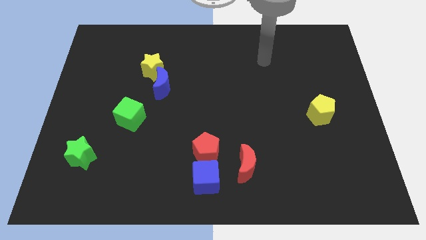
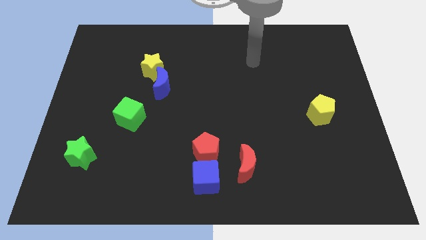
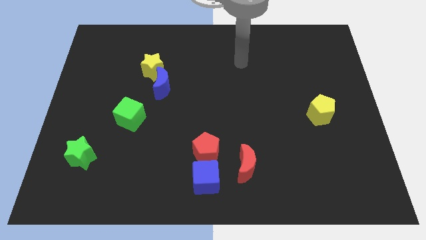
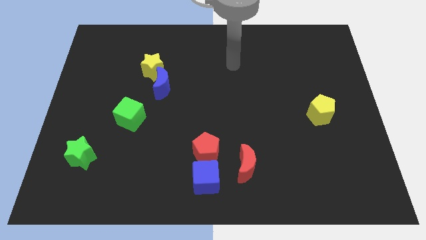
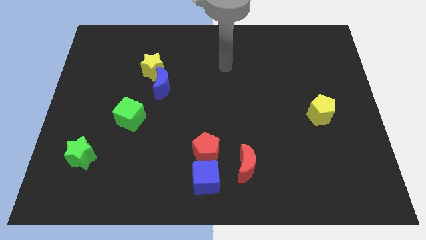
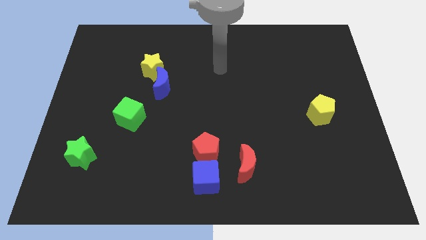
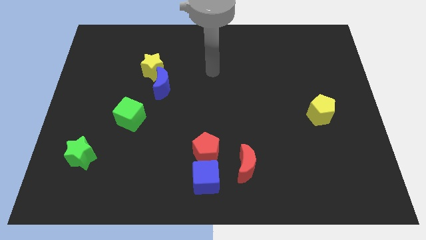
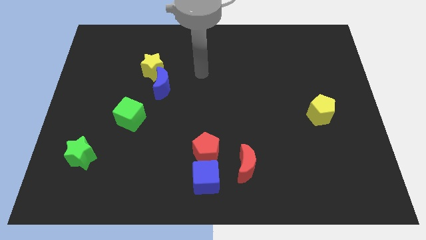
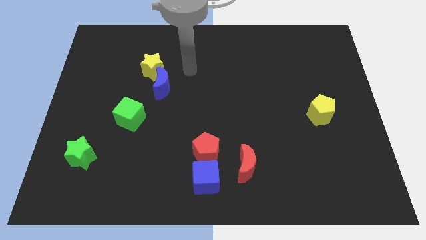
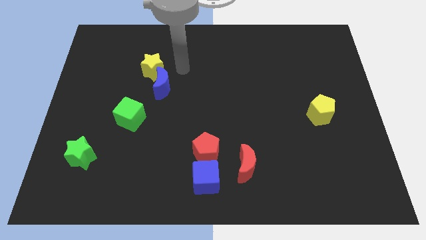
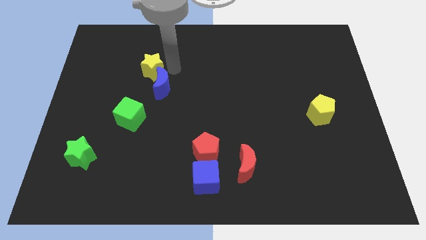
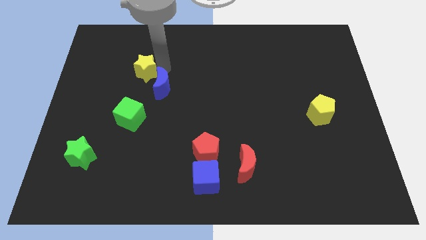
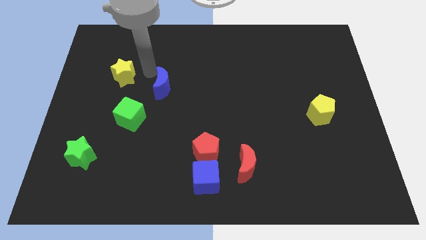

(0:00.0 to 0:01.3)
move the blue moon away from the yellow star

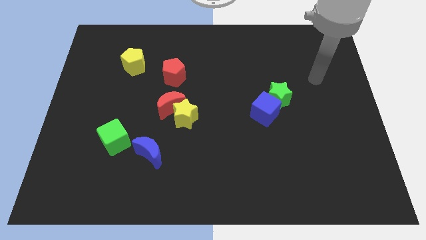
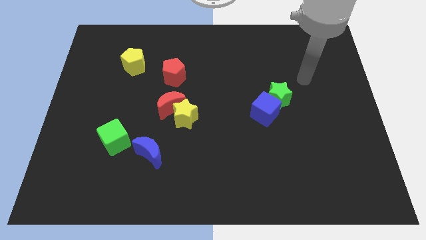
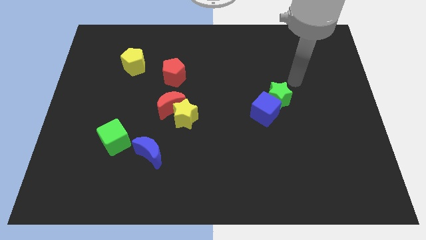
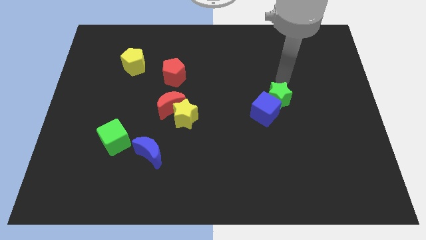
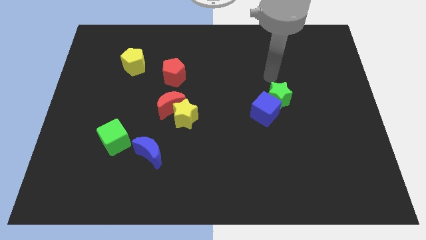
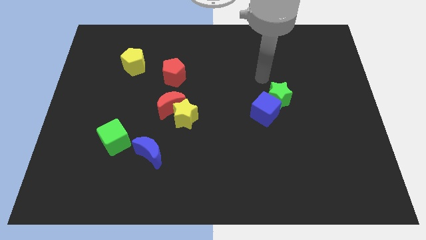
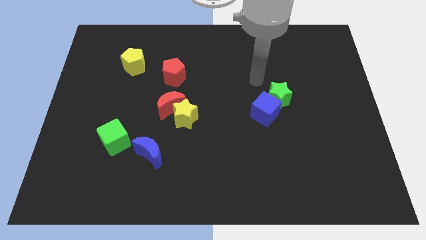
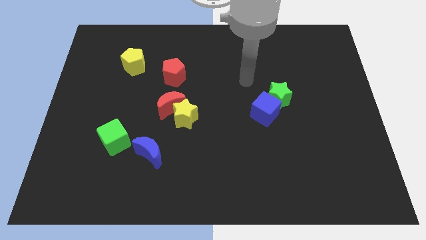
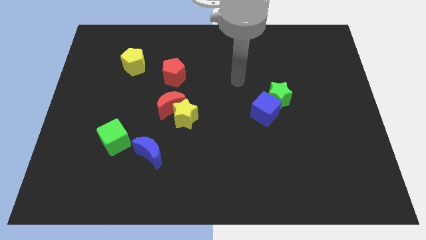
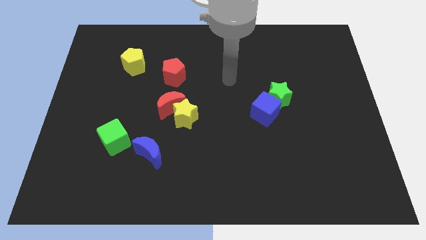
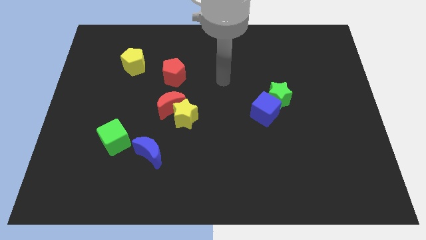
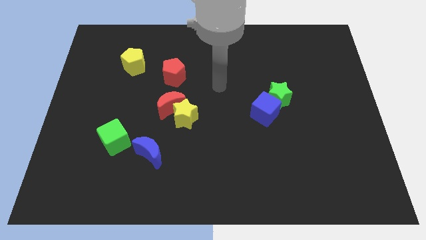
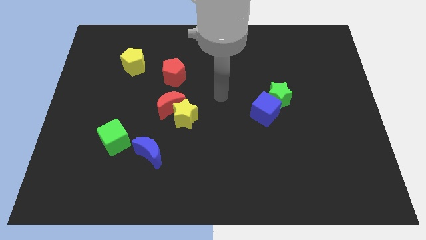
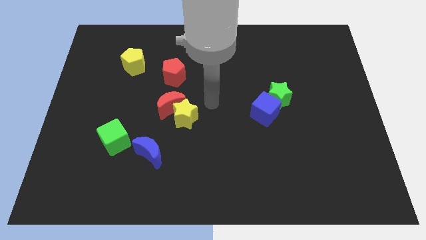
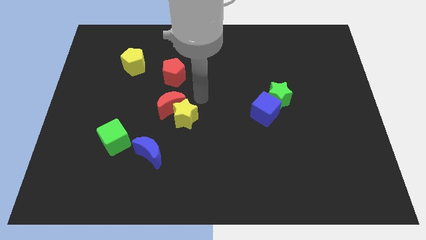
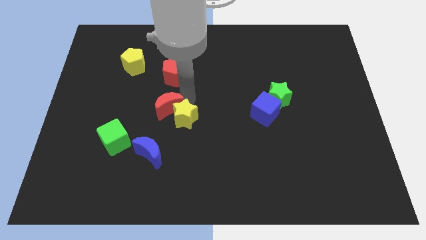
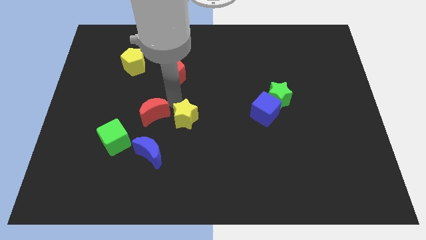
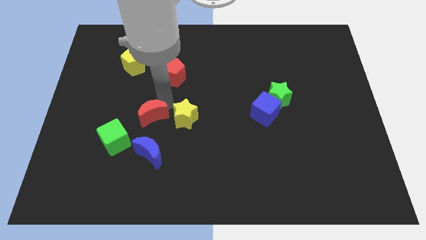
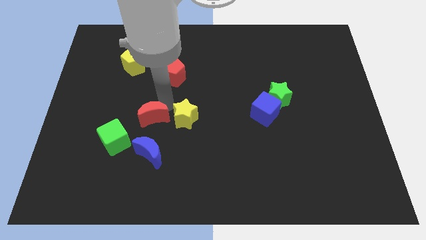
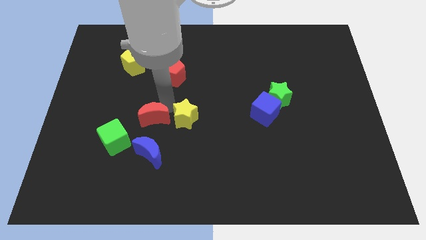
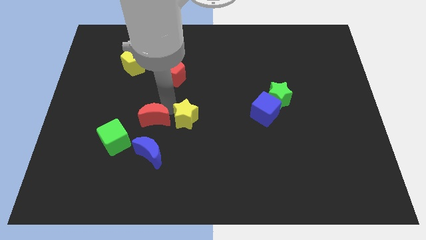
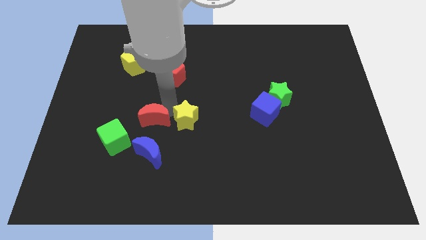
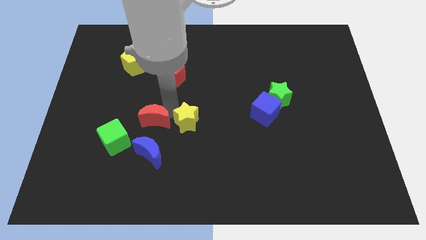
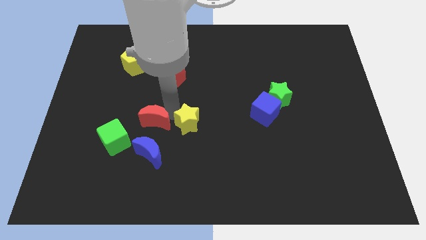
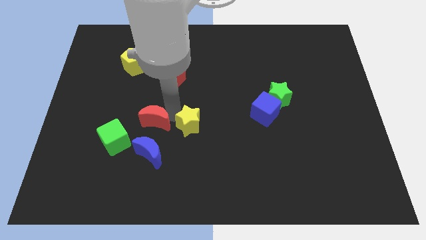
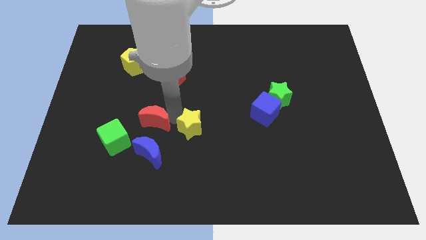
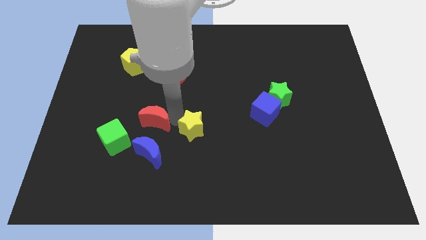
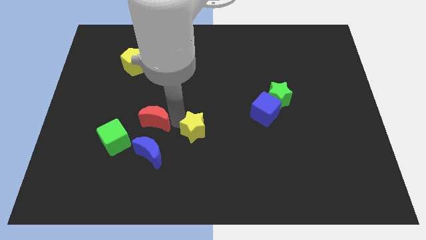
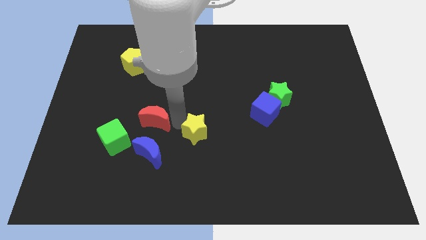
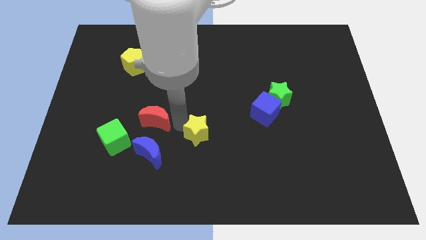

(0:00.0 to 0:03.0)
separate the yellow star from the red moon

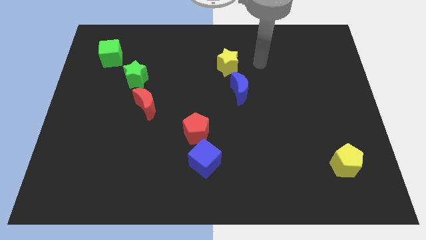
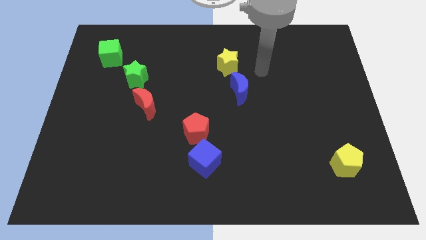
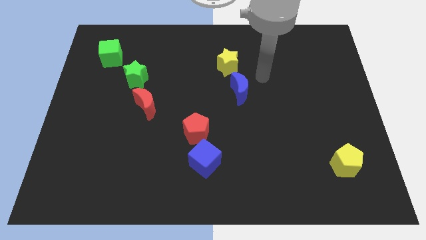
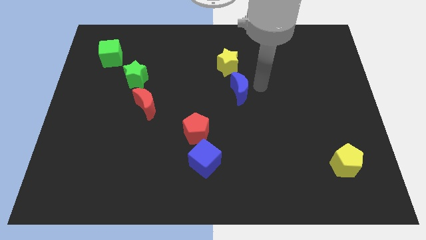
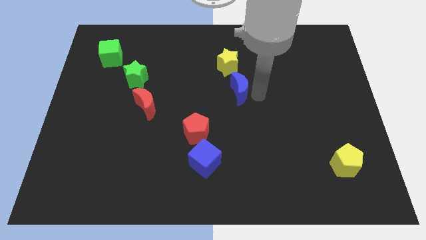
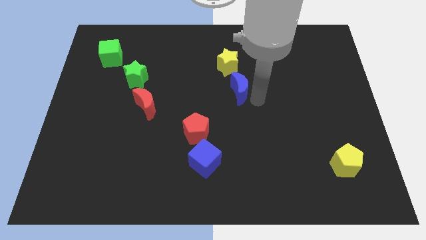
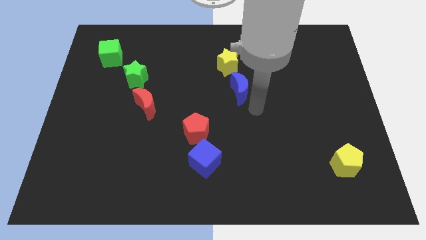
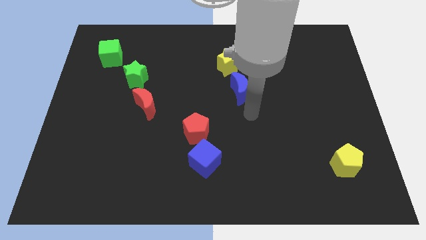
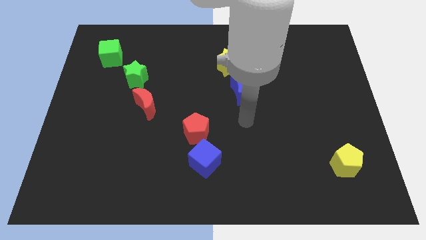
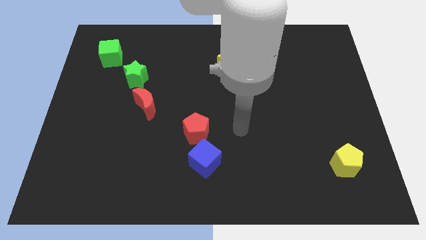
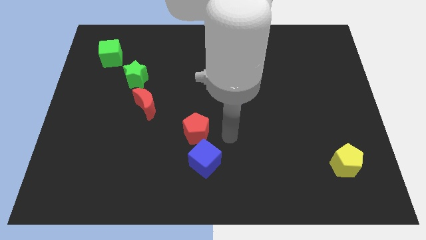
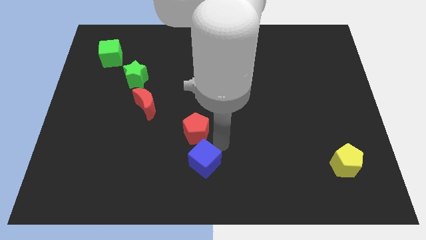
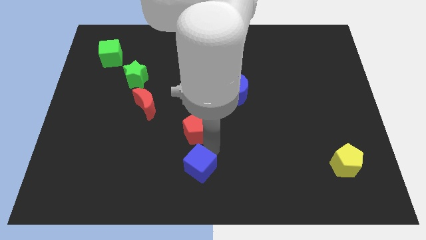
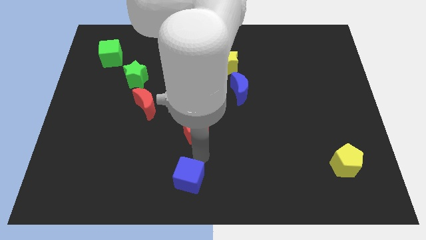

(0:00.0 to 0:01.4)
move the red pentagon away from the blue cube

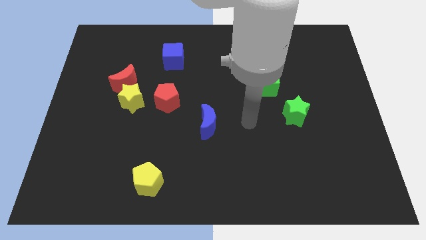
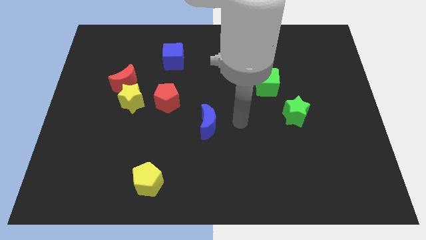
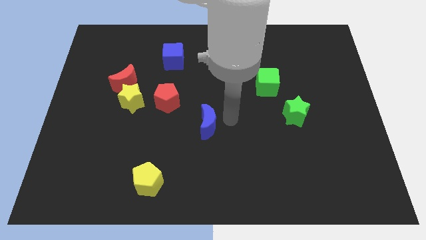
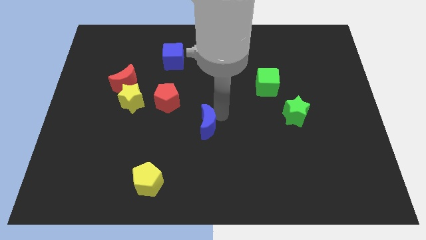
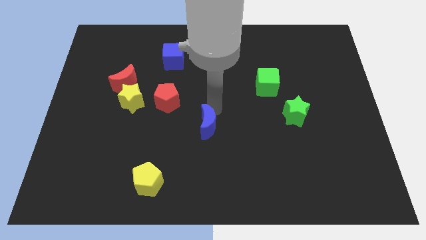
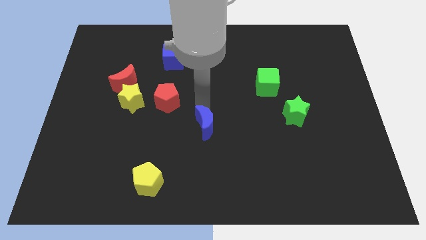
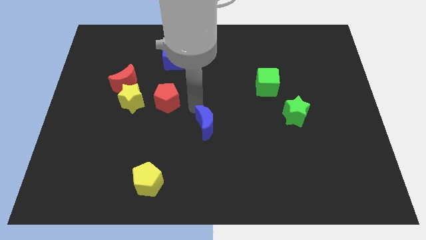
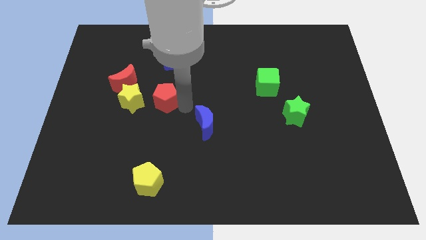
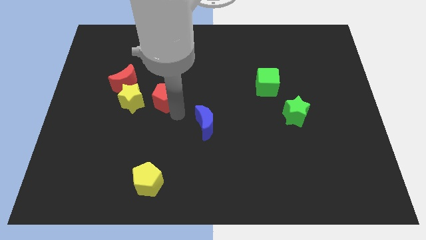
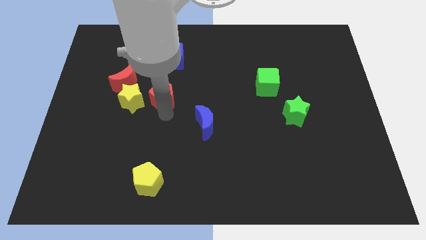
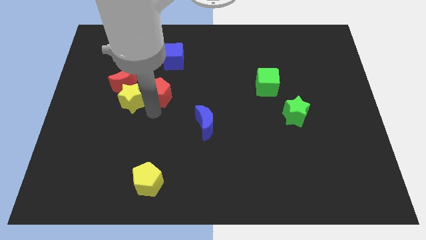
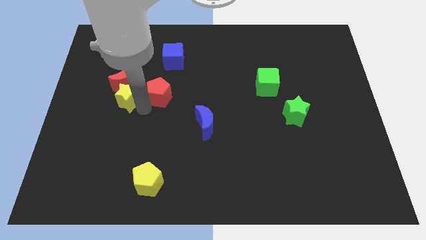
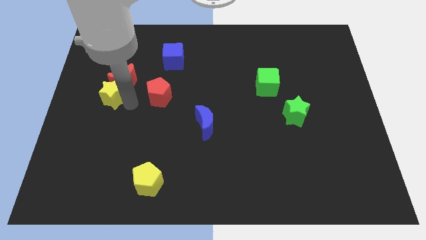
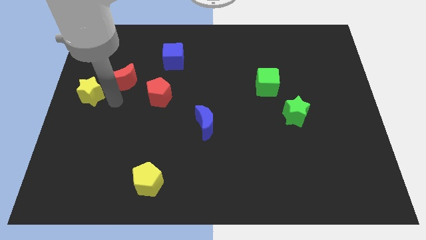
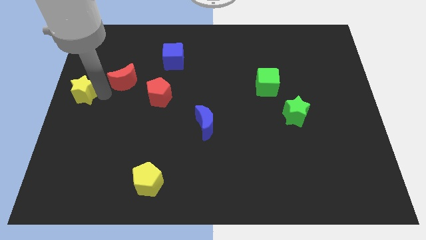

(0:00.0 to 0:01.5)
pull the red moon apart from the yellow star

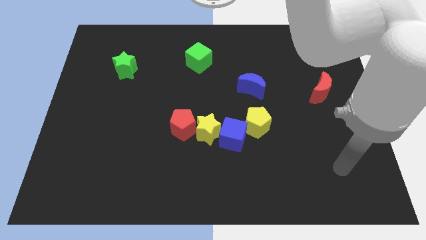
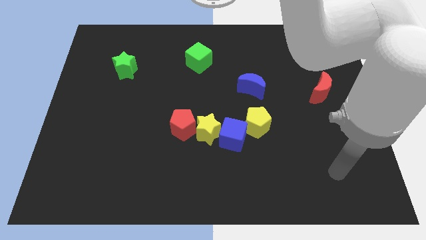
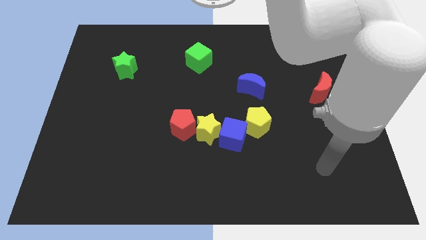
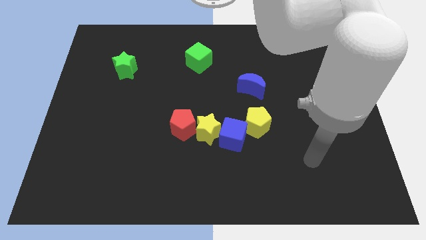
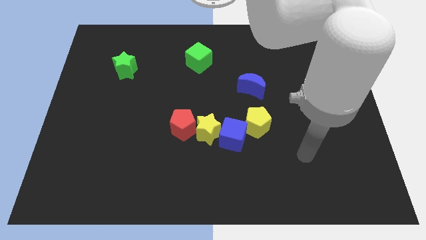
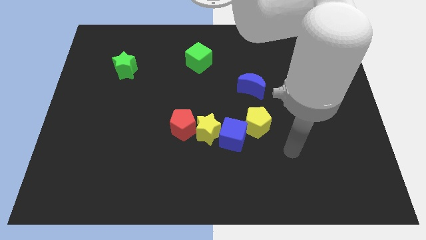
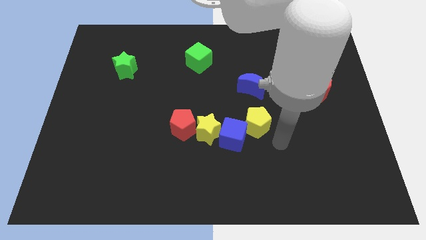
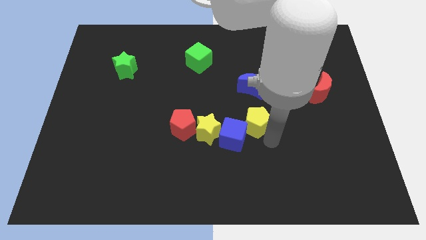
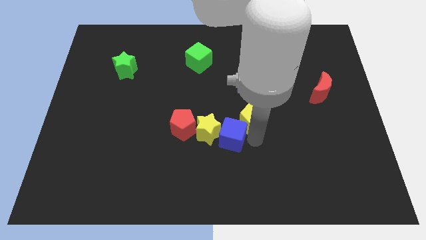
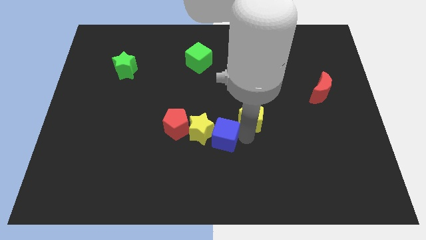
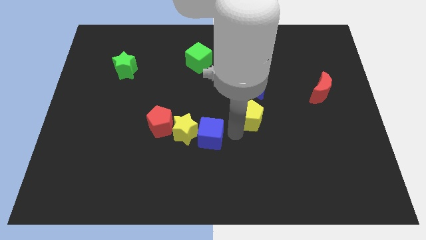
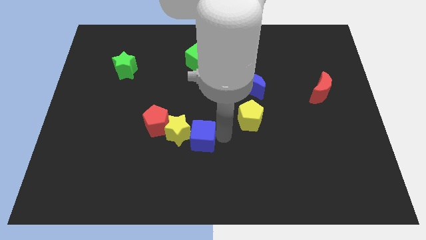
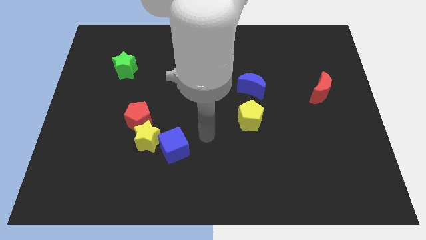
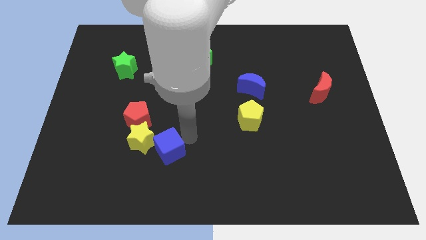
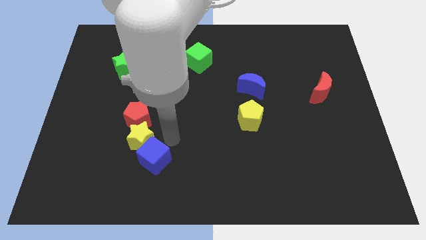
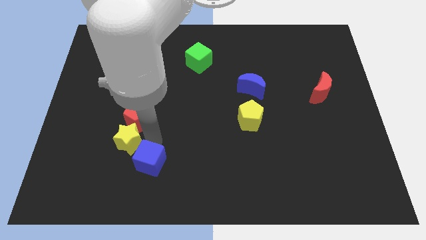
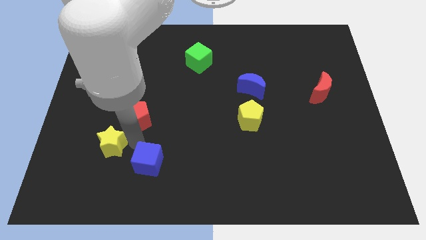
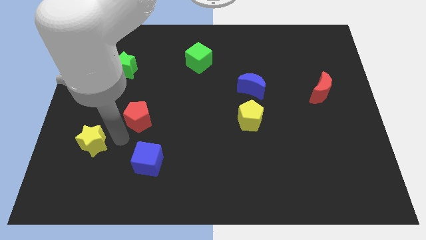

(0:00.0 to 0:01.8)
separate the red pentagon from the yellow star

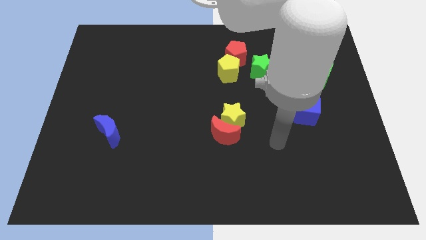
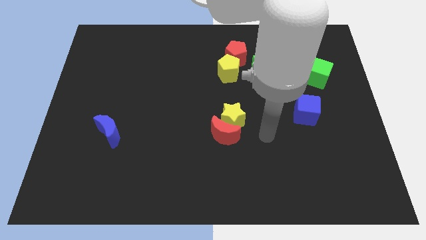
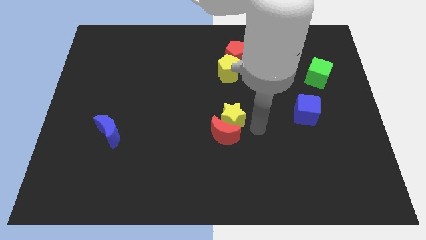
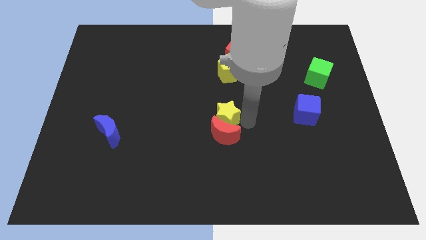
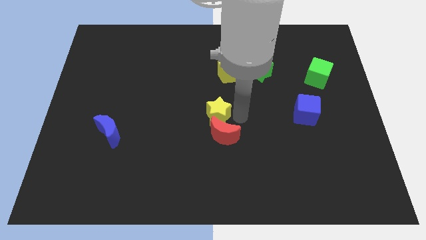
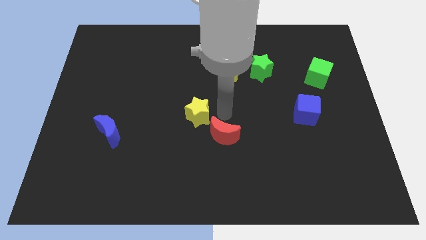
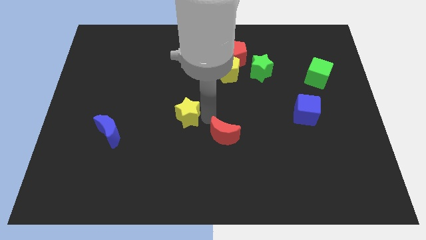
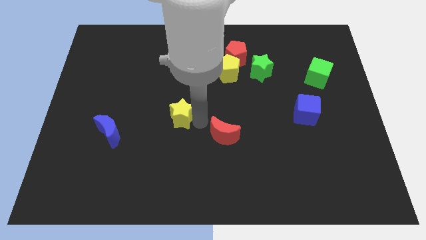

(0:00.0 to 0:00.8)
separate the red moon from the yellow star
